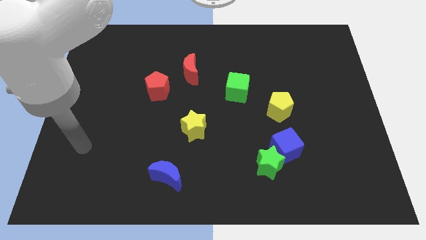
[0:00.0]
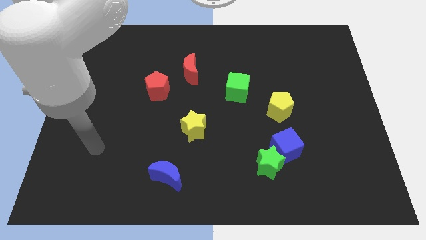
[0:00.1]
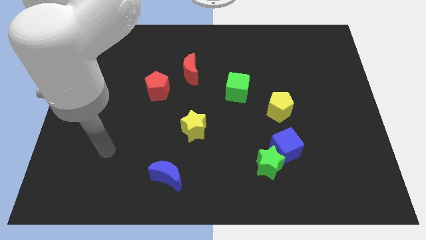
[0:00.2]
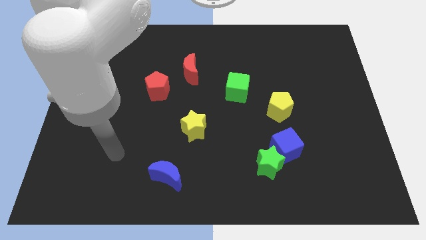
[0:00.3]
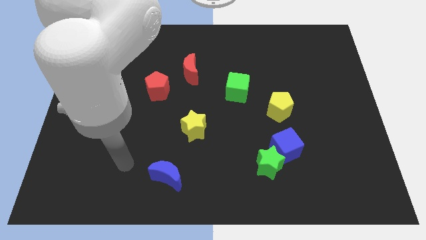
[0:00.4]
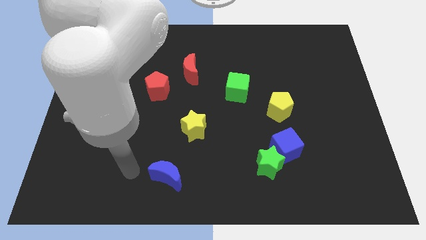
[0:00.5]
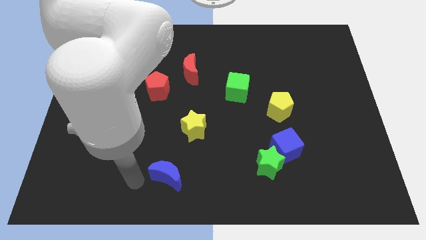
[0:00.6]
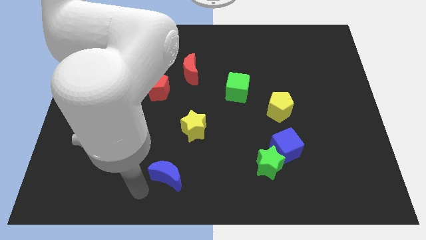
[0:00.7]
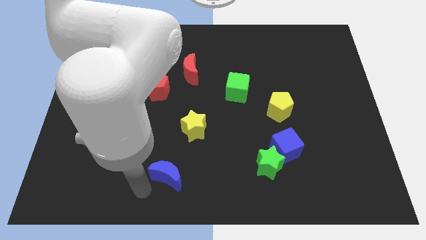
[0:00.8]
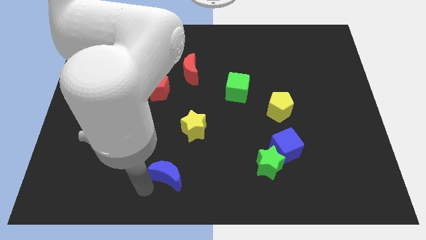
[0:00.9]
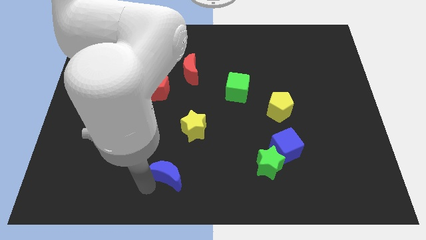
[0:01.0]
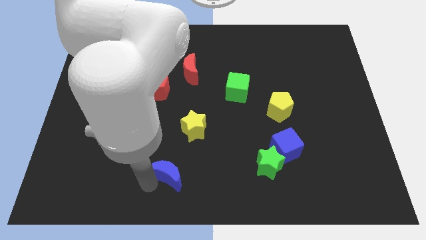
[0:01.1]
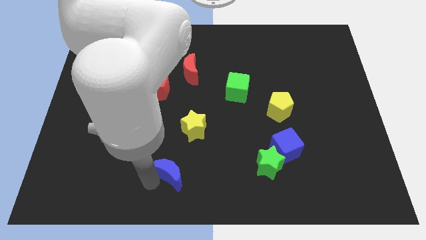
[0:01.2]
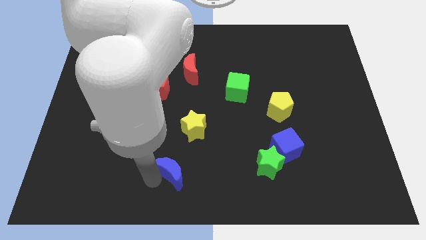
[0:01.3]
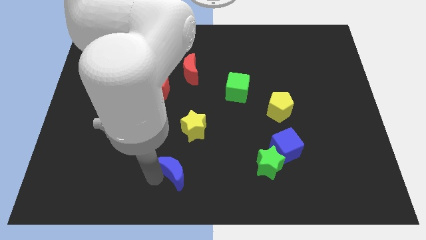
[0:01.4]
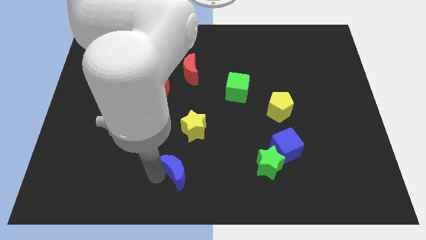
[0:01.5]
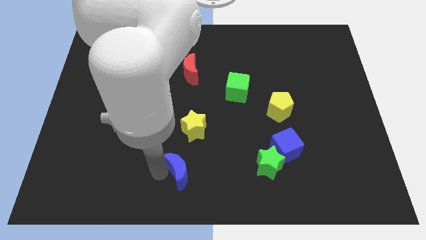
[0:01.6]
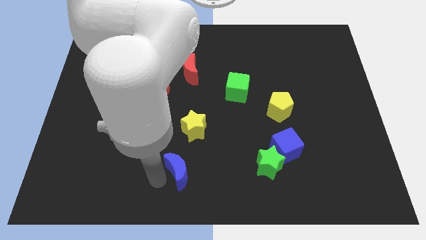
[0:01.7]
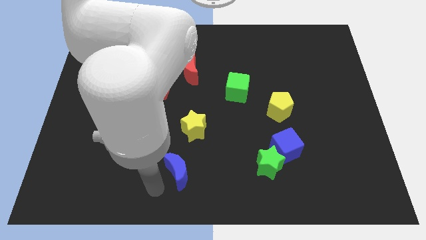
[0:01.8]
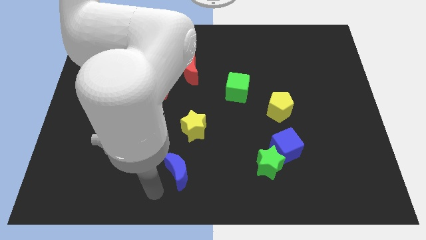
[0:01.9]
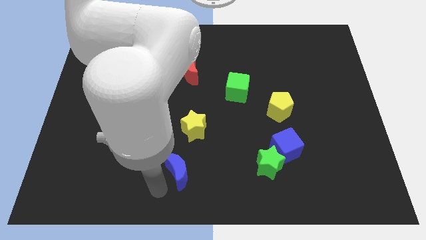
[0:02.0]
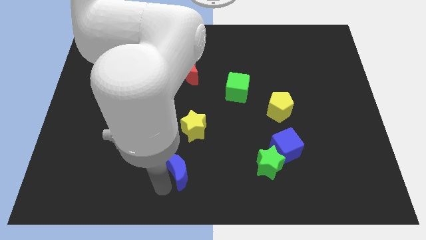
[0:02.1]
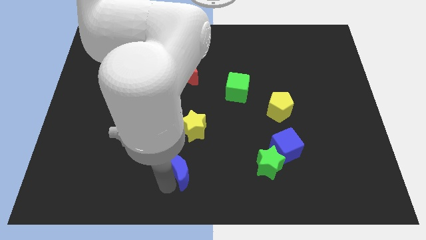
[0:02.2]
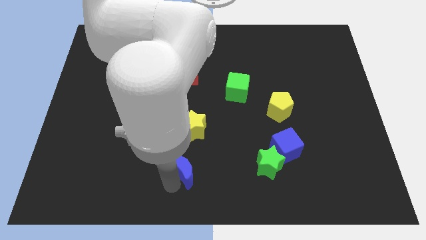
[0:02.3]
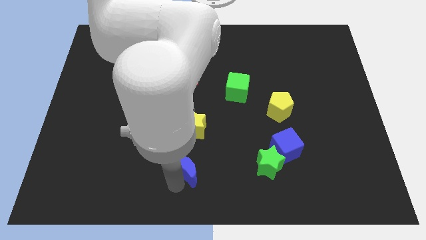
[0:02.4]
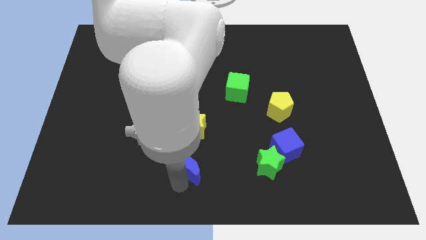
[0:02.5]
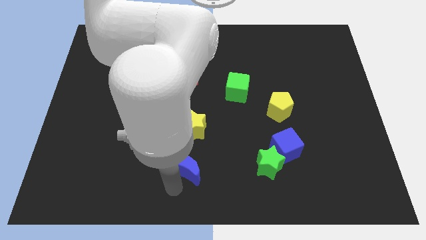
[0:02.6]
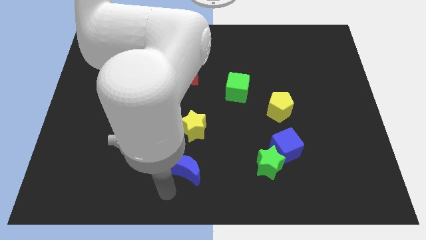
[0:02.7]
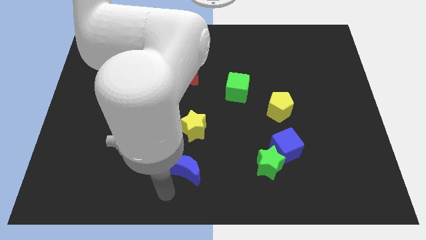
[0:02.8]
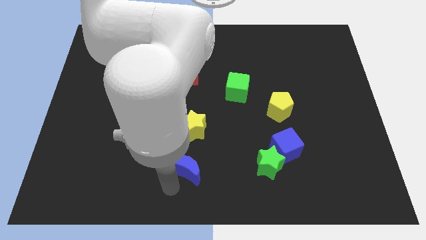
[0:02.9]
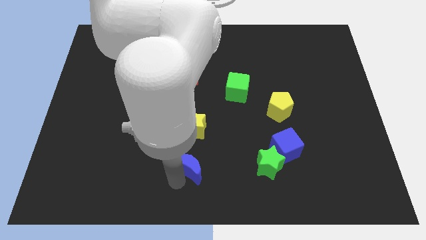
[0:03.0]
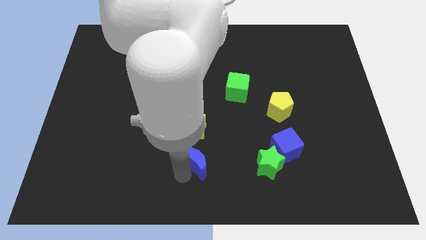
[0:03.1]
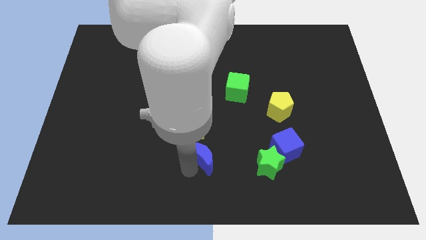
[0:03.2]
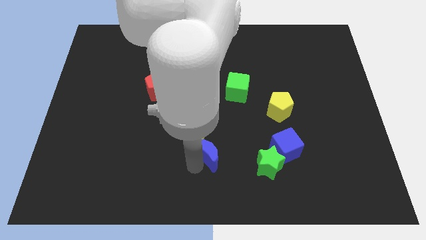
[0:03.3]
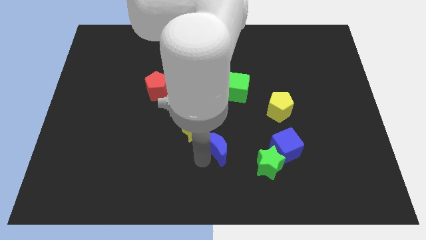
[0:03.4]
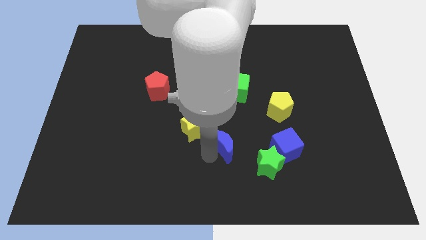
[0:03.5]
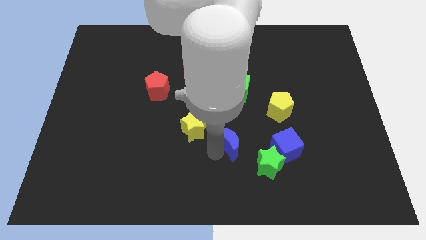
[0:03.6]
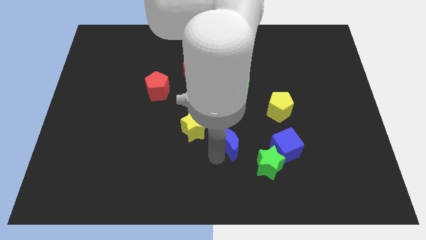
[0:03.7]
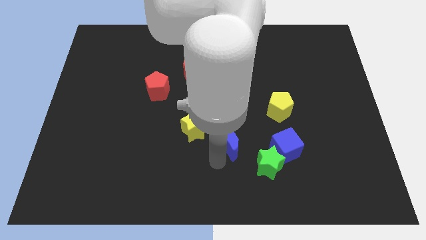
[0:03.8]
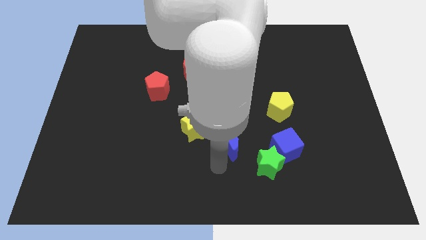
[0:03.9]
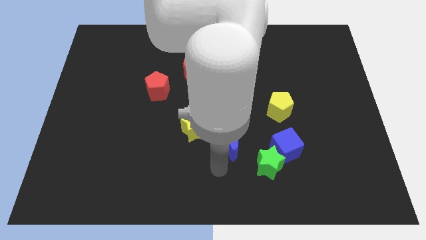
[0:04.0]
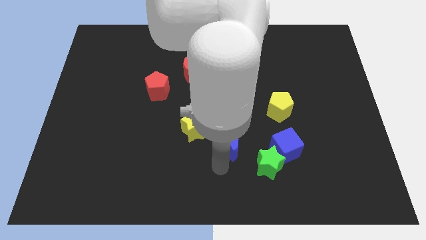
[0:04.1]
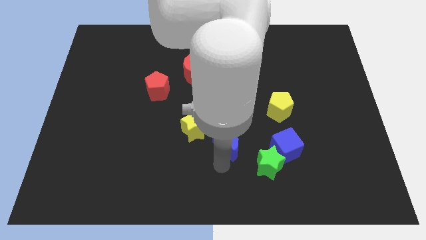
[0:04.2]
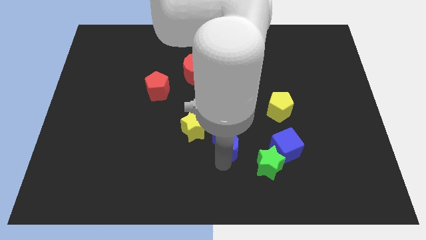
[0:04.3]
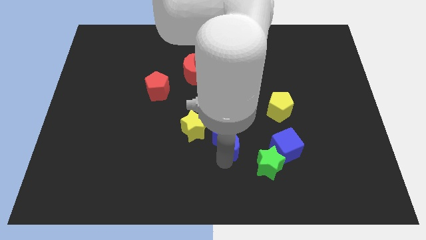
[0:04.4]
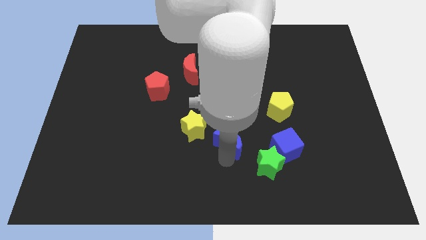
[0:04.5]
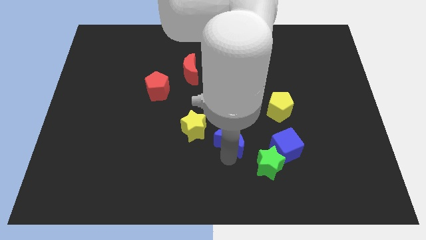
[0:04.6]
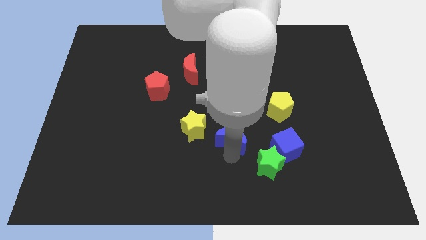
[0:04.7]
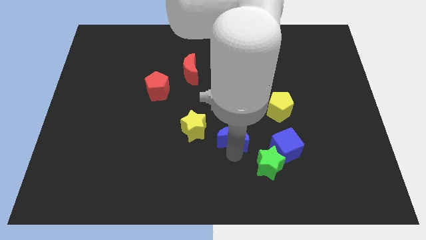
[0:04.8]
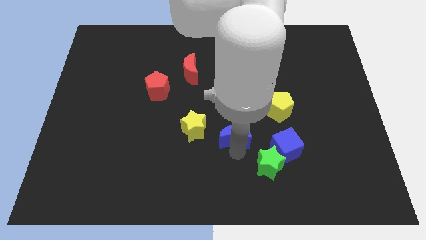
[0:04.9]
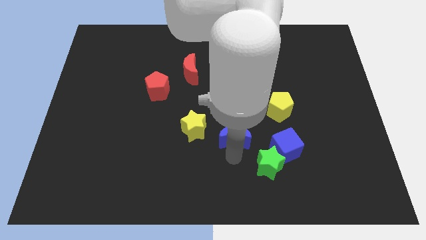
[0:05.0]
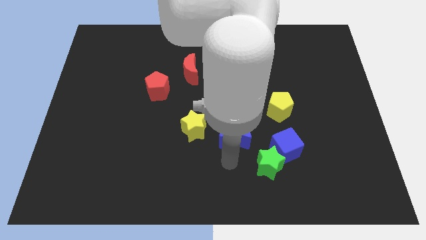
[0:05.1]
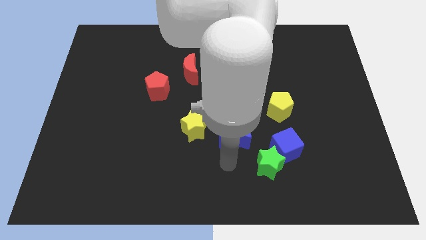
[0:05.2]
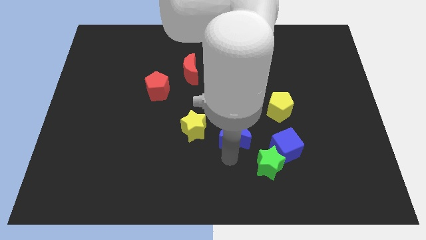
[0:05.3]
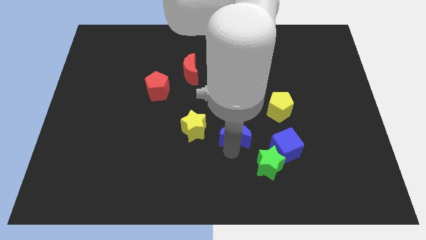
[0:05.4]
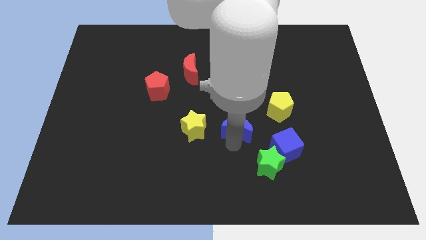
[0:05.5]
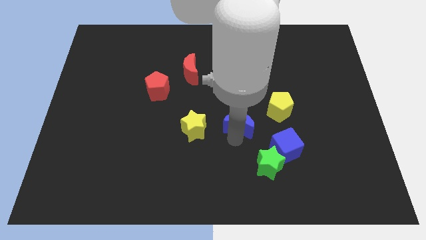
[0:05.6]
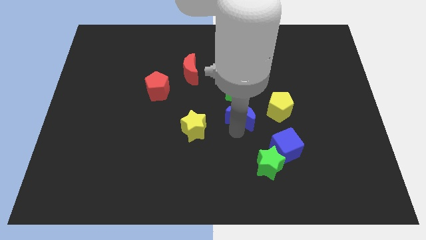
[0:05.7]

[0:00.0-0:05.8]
move the blue moon diagonally up and to the right

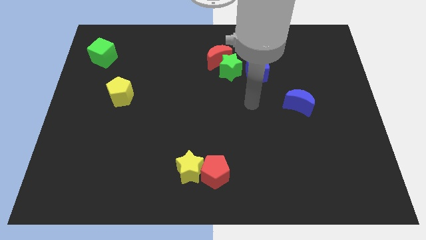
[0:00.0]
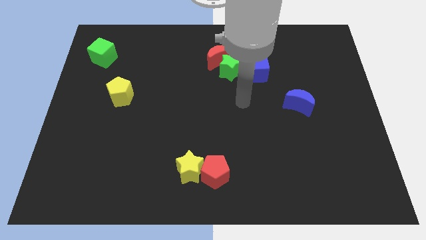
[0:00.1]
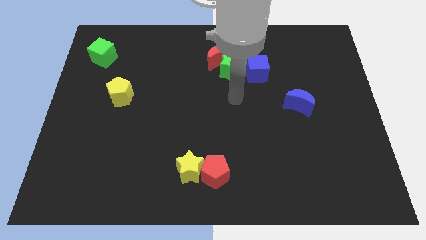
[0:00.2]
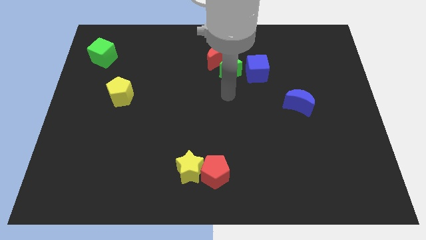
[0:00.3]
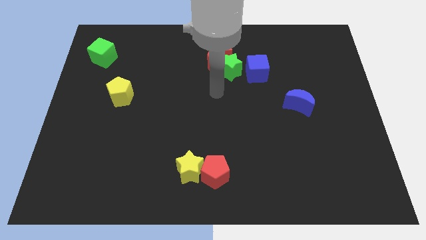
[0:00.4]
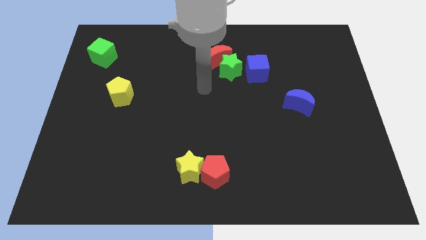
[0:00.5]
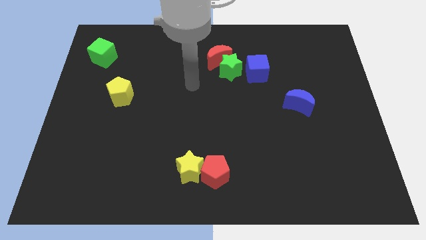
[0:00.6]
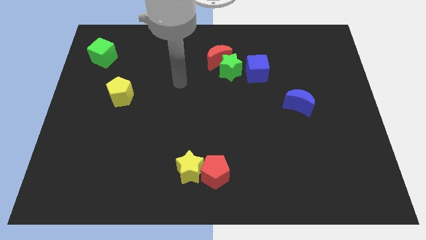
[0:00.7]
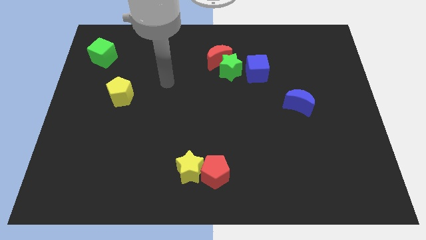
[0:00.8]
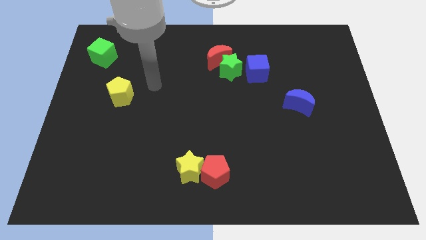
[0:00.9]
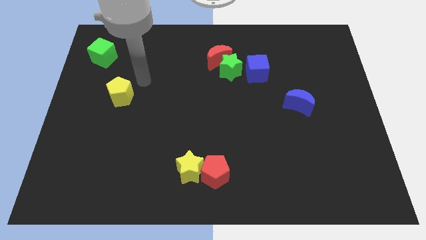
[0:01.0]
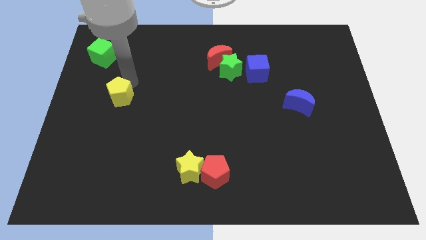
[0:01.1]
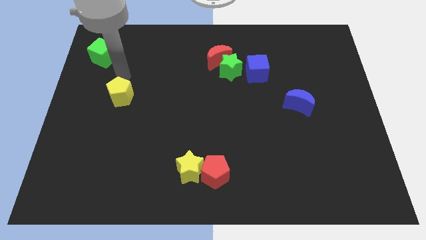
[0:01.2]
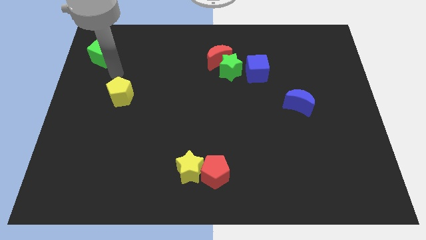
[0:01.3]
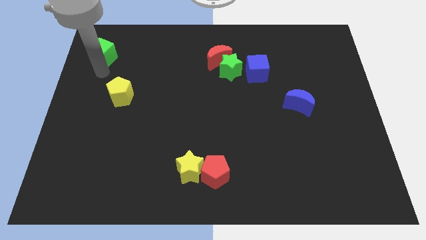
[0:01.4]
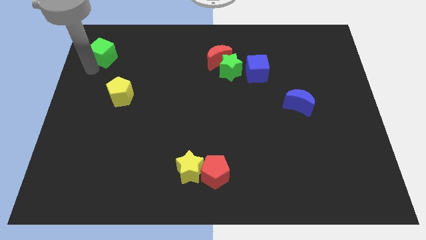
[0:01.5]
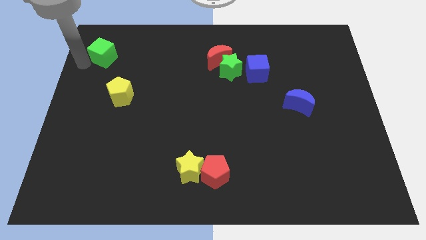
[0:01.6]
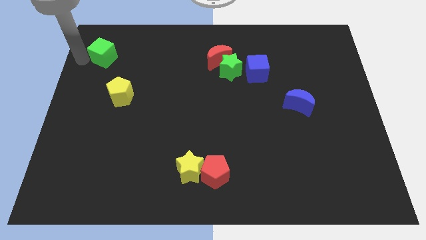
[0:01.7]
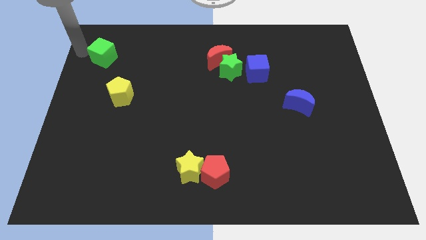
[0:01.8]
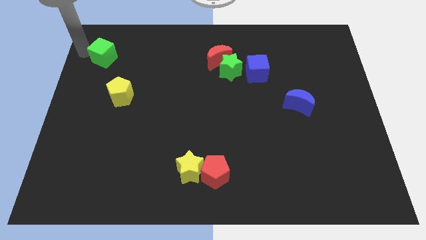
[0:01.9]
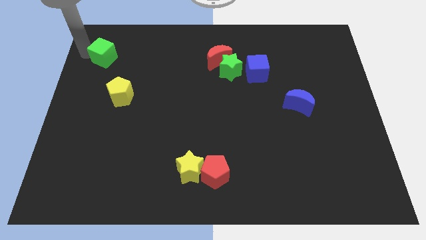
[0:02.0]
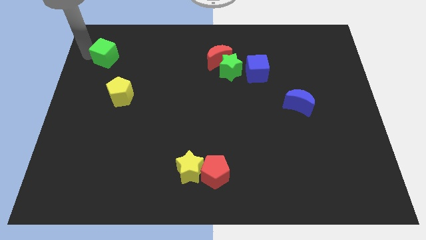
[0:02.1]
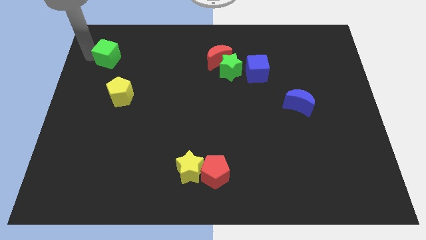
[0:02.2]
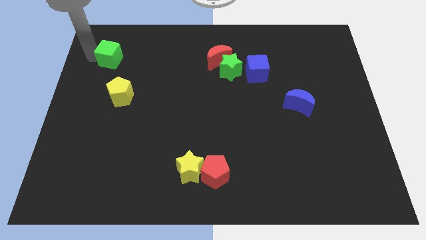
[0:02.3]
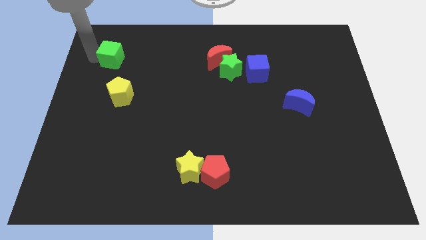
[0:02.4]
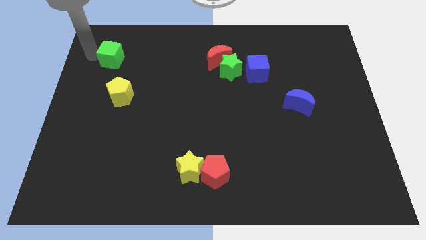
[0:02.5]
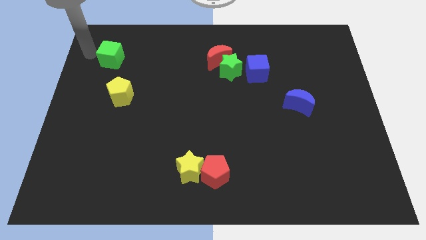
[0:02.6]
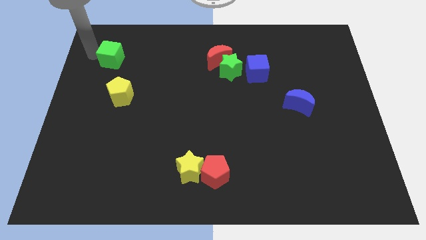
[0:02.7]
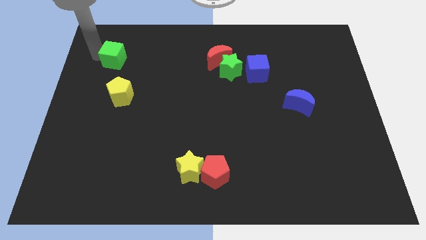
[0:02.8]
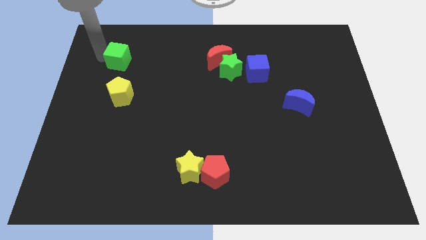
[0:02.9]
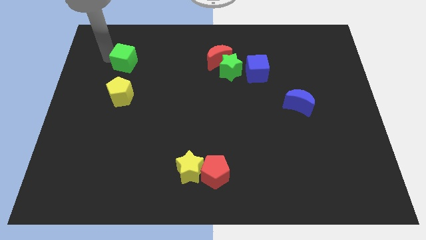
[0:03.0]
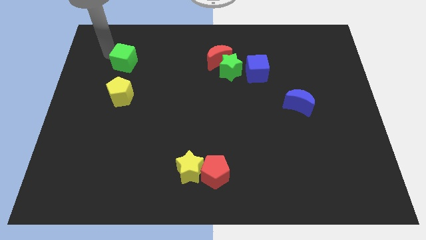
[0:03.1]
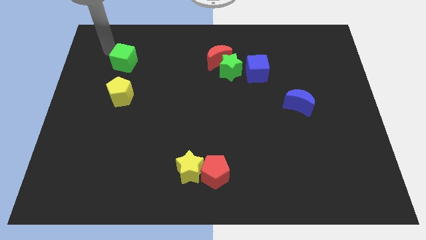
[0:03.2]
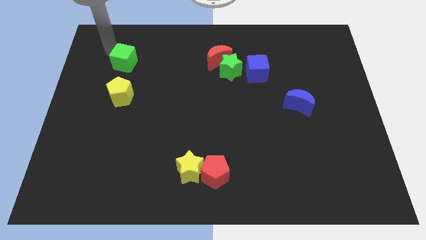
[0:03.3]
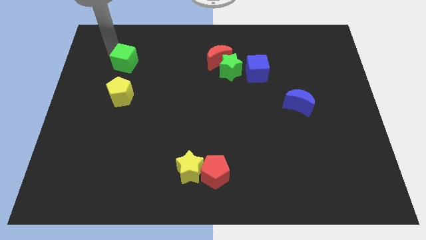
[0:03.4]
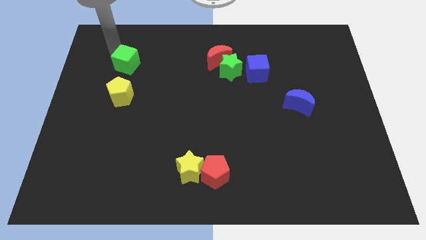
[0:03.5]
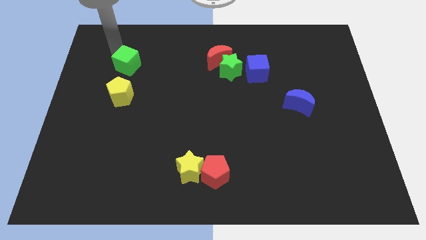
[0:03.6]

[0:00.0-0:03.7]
push the green cube a bit diagonally down and right
